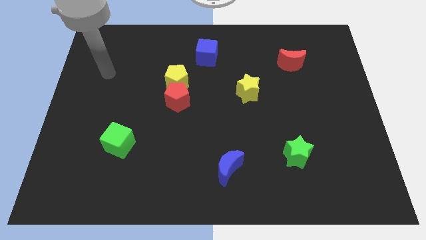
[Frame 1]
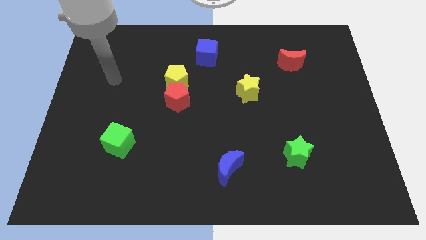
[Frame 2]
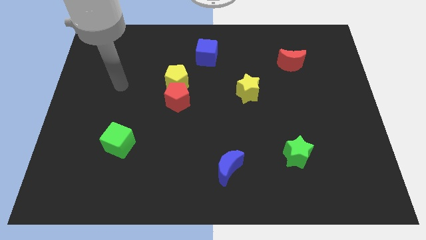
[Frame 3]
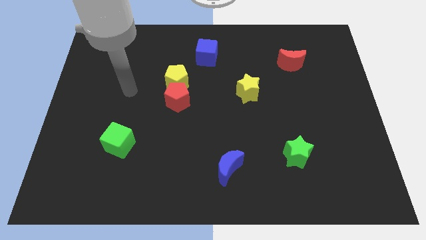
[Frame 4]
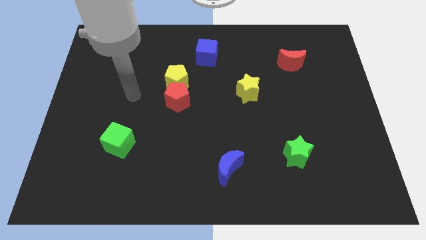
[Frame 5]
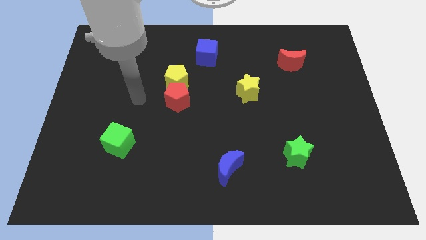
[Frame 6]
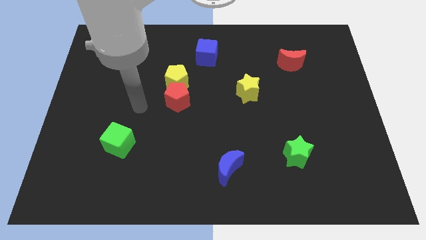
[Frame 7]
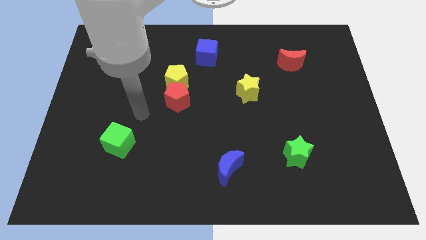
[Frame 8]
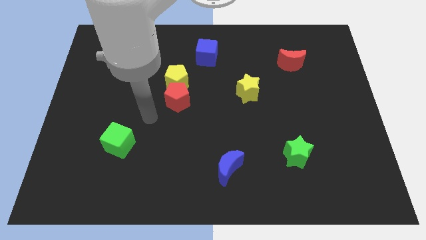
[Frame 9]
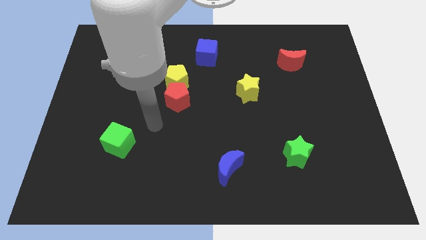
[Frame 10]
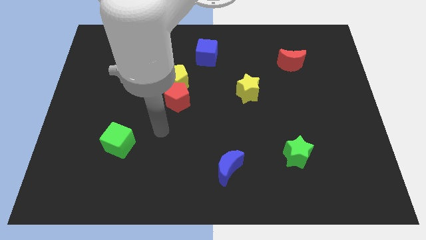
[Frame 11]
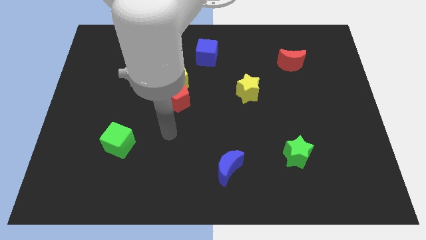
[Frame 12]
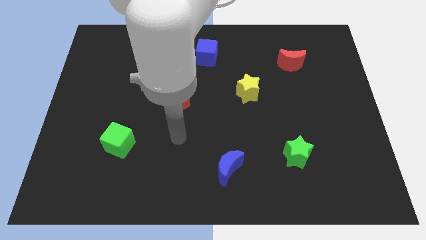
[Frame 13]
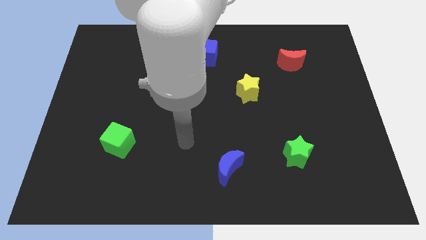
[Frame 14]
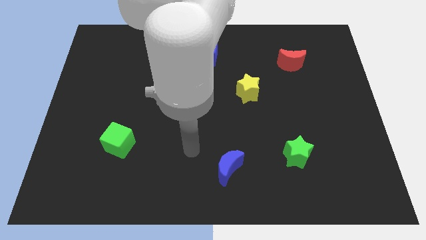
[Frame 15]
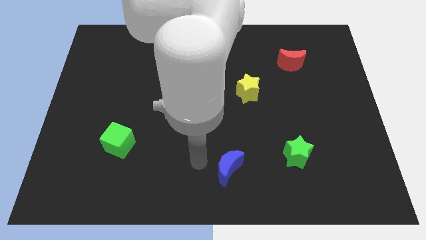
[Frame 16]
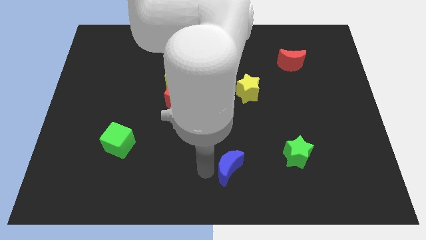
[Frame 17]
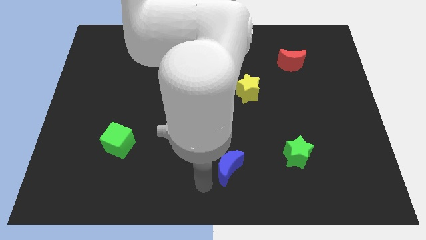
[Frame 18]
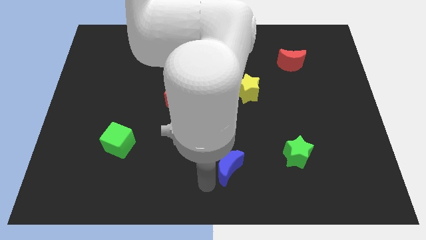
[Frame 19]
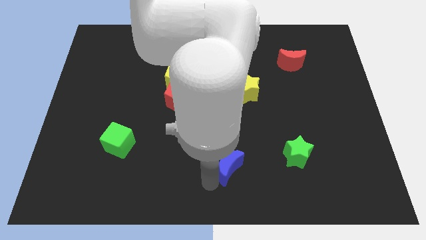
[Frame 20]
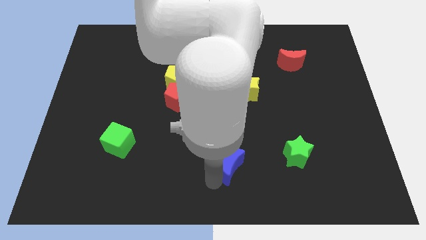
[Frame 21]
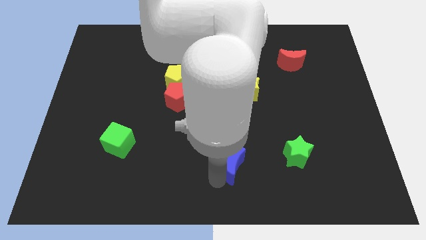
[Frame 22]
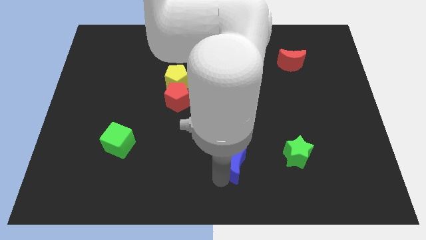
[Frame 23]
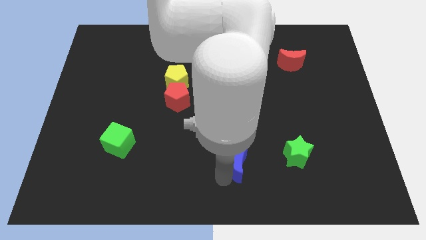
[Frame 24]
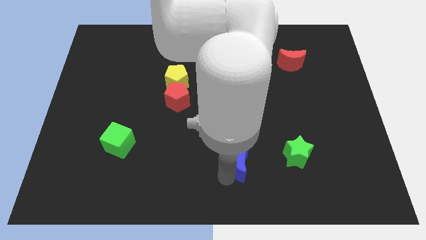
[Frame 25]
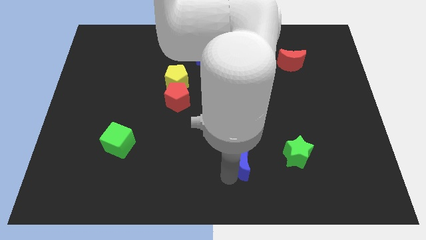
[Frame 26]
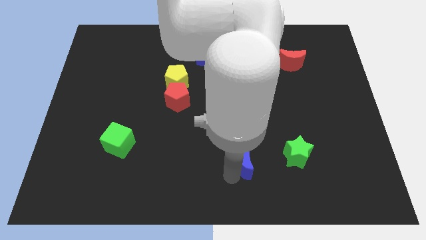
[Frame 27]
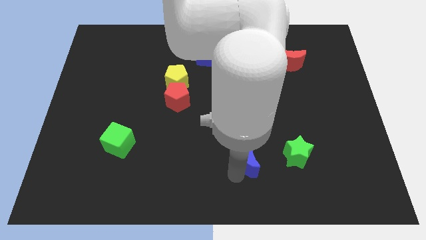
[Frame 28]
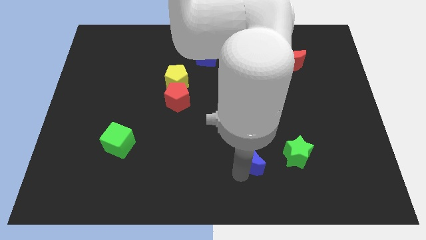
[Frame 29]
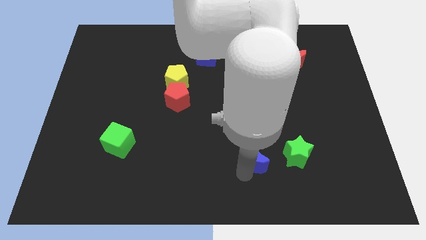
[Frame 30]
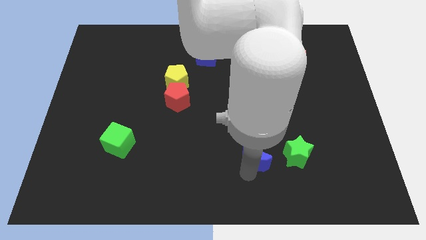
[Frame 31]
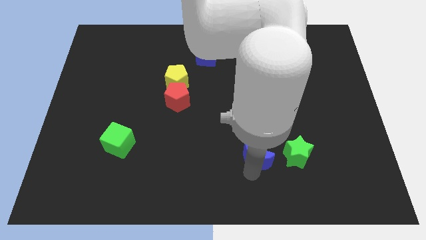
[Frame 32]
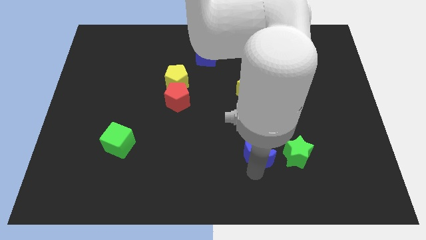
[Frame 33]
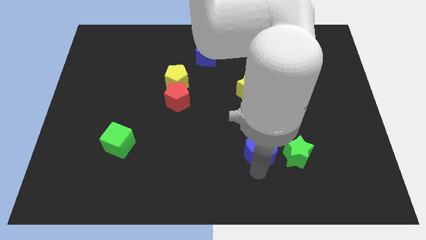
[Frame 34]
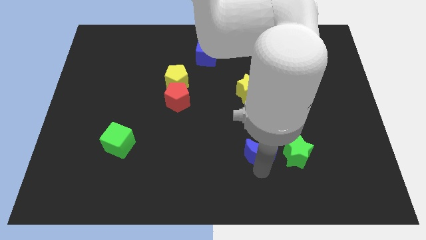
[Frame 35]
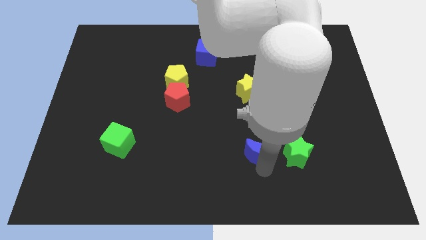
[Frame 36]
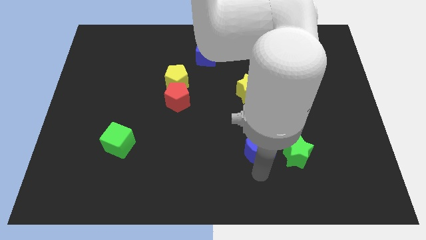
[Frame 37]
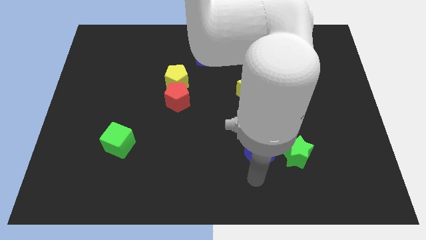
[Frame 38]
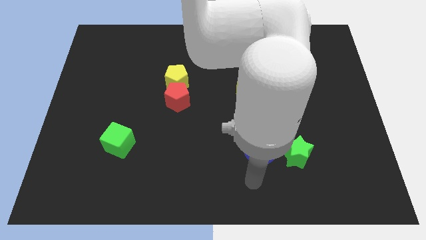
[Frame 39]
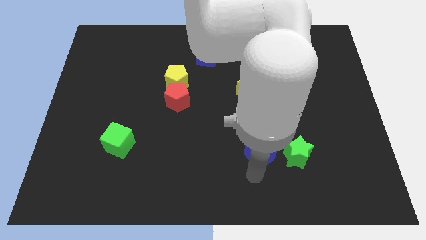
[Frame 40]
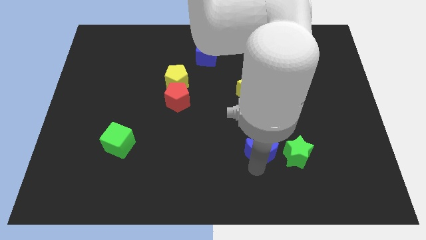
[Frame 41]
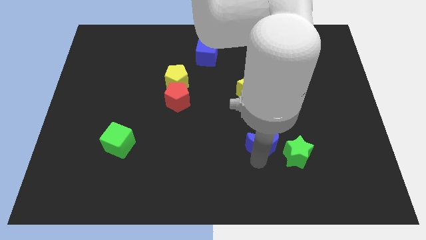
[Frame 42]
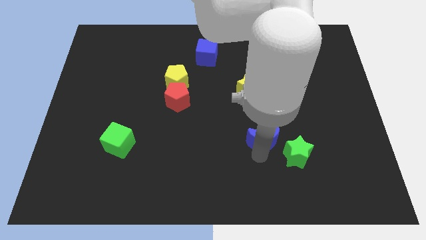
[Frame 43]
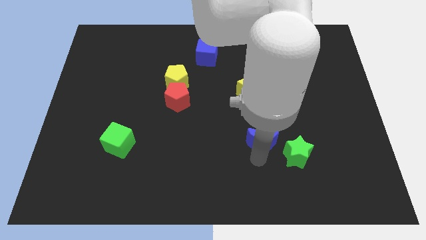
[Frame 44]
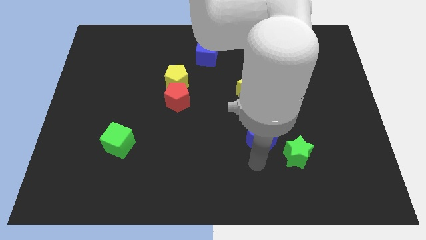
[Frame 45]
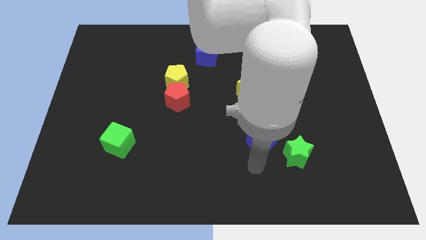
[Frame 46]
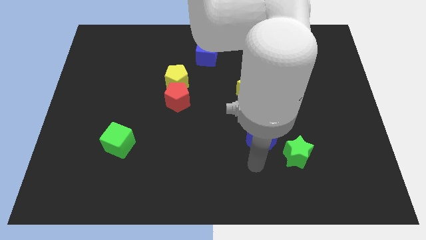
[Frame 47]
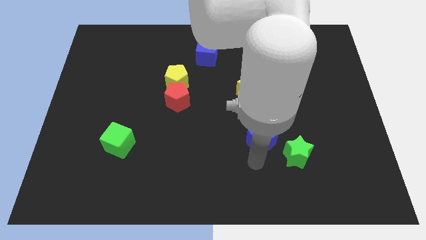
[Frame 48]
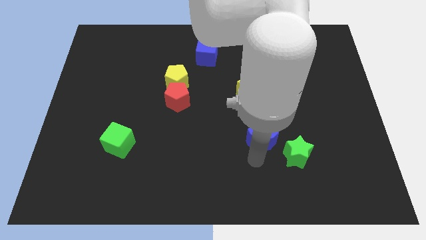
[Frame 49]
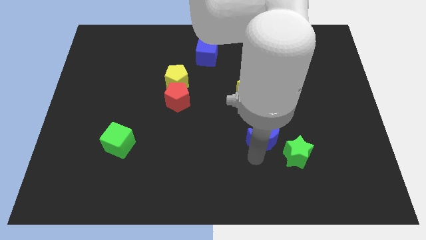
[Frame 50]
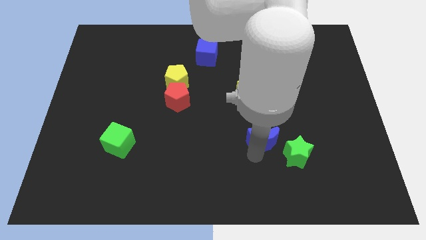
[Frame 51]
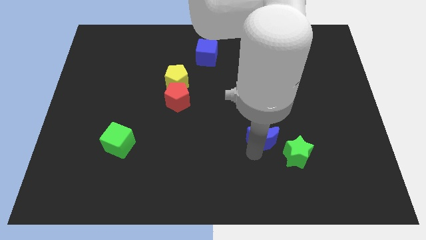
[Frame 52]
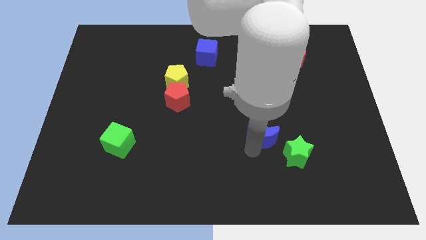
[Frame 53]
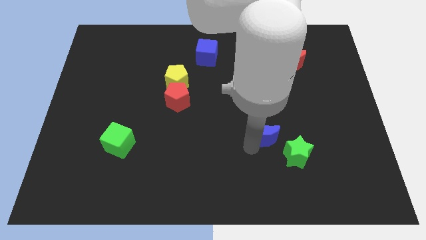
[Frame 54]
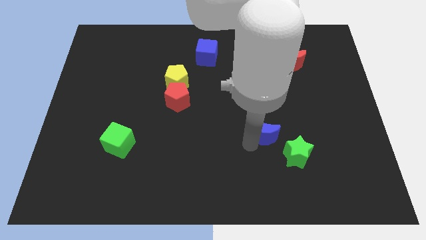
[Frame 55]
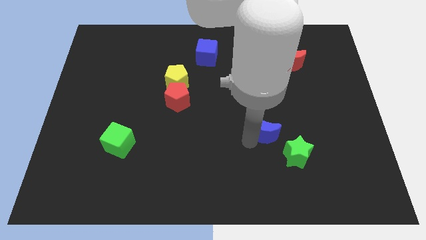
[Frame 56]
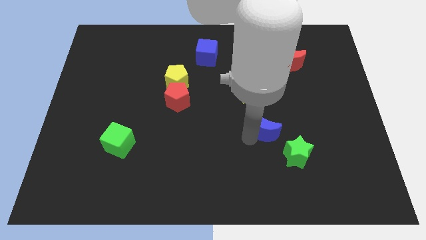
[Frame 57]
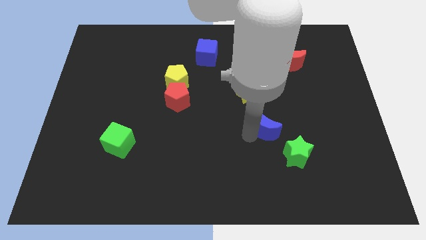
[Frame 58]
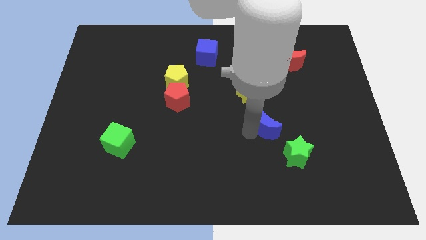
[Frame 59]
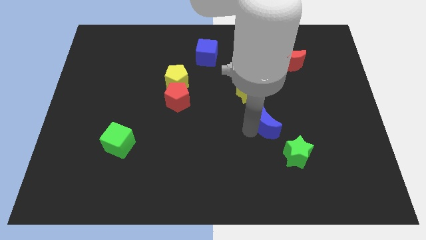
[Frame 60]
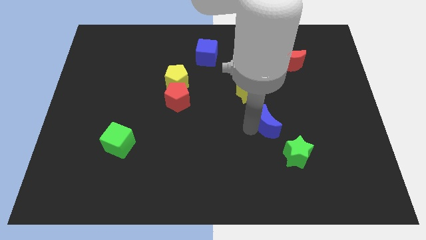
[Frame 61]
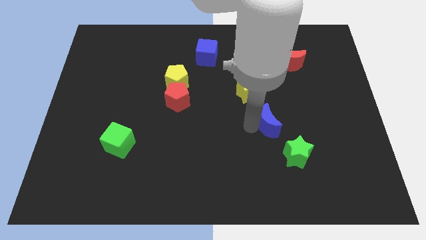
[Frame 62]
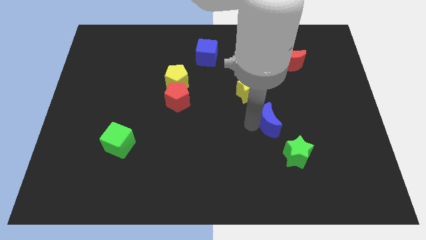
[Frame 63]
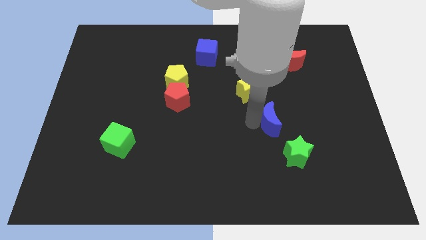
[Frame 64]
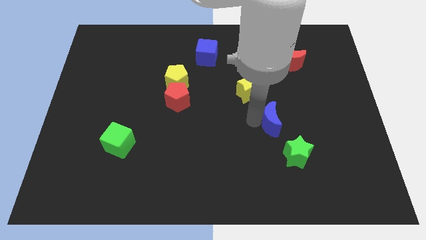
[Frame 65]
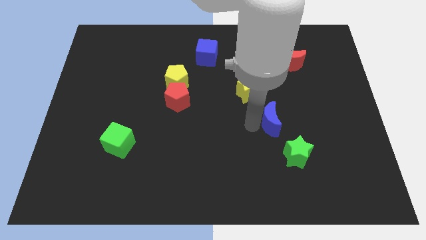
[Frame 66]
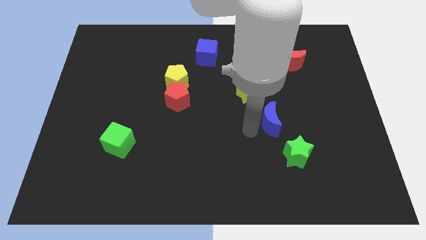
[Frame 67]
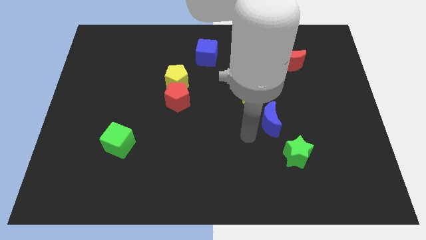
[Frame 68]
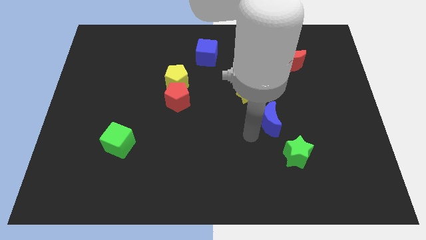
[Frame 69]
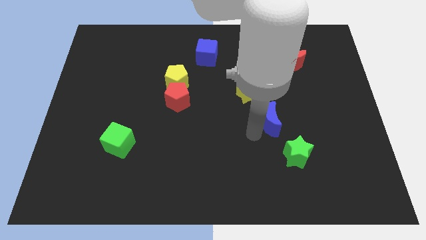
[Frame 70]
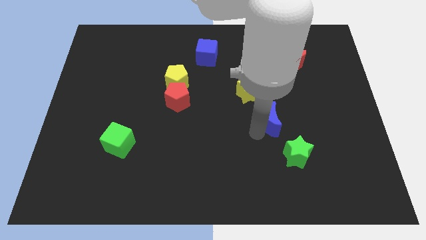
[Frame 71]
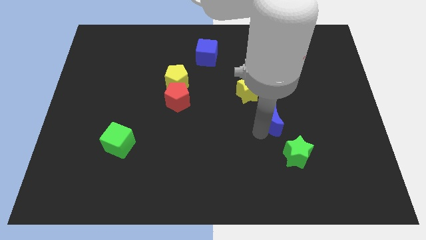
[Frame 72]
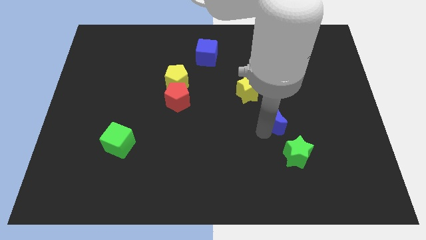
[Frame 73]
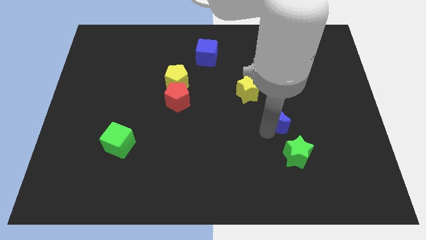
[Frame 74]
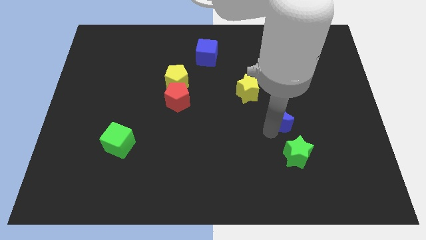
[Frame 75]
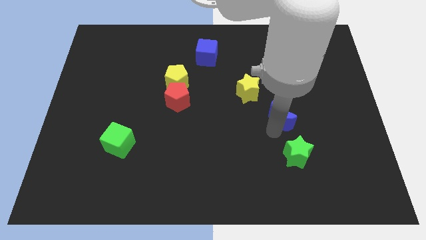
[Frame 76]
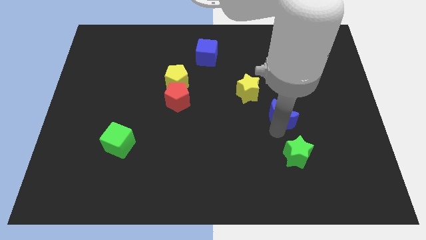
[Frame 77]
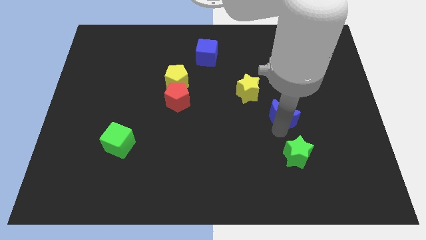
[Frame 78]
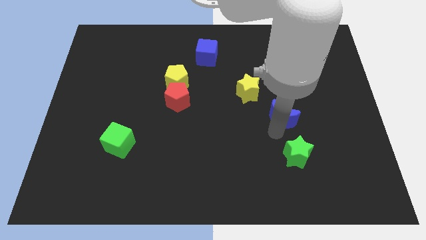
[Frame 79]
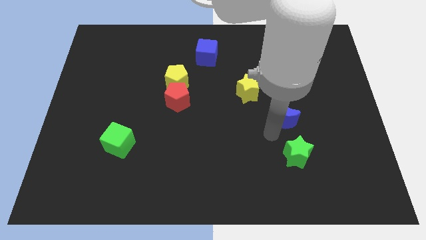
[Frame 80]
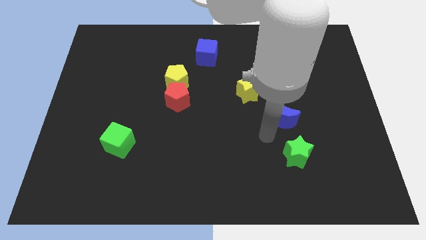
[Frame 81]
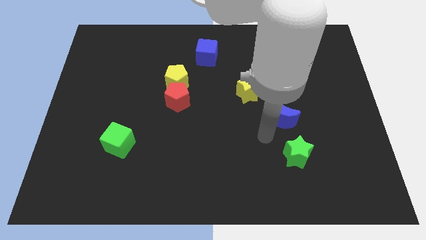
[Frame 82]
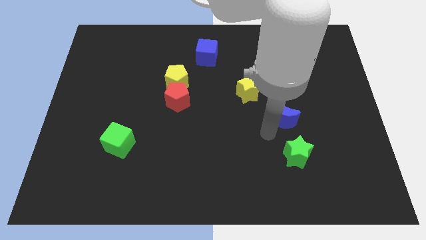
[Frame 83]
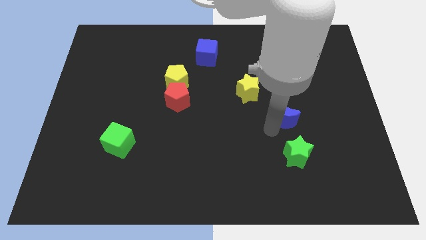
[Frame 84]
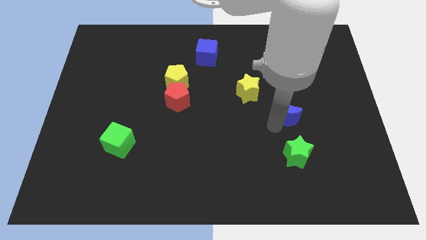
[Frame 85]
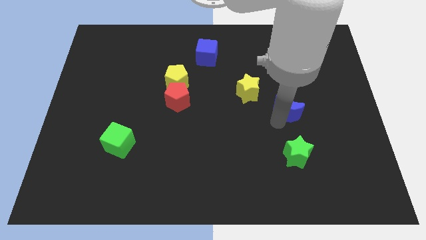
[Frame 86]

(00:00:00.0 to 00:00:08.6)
push the blue moon up and right
